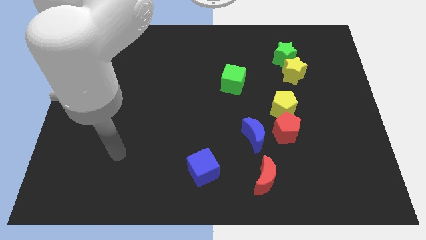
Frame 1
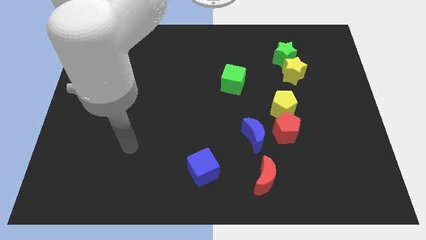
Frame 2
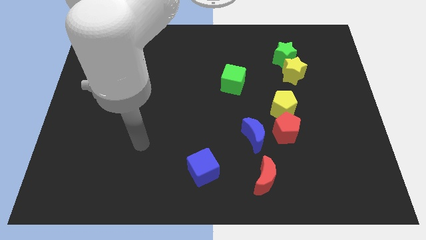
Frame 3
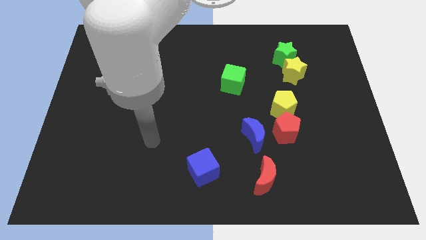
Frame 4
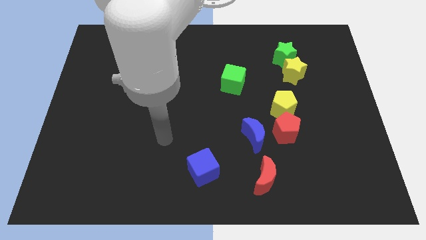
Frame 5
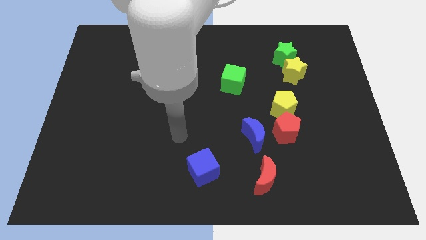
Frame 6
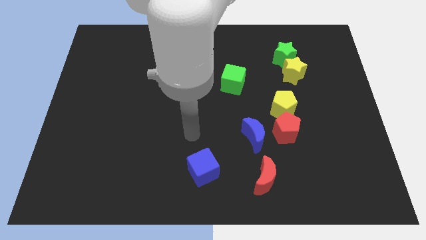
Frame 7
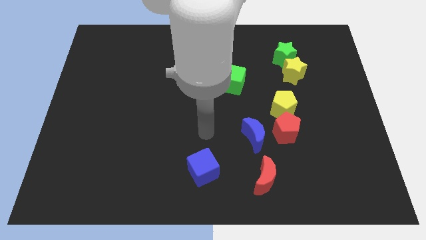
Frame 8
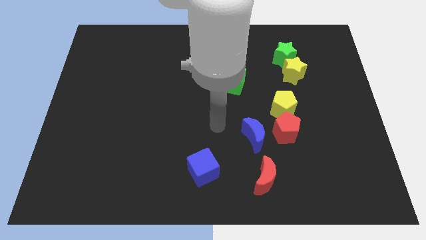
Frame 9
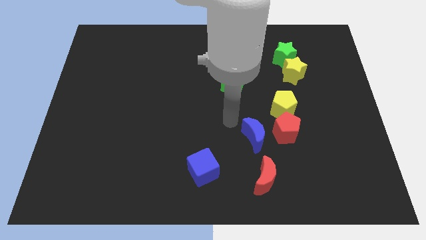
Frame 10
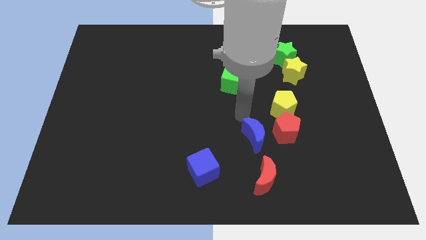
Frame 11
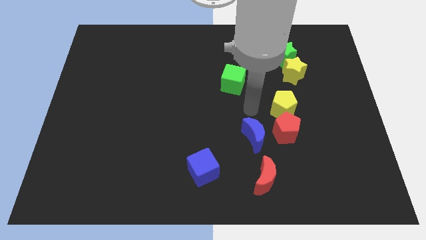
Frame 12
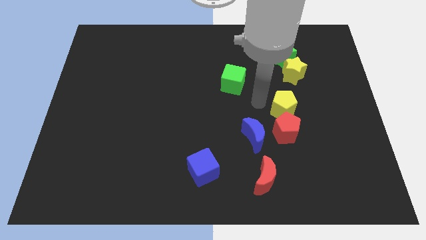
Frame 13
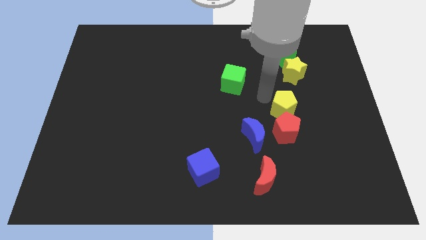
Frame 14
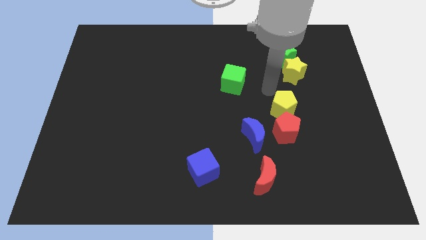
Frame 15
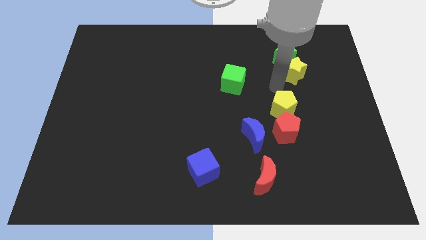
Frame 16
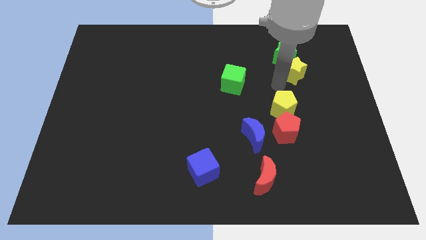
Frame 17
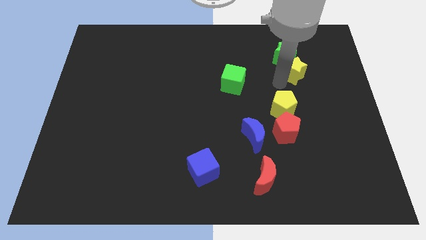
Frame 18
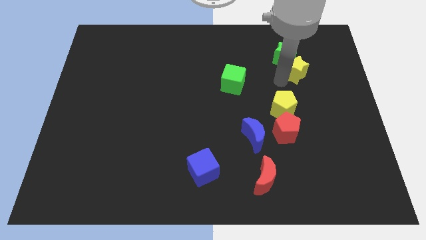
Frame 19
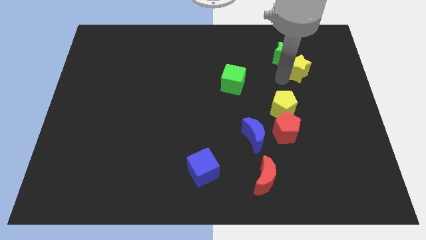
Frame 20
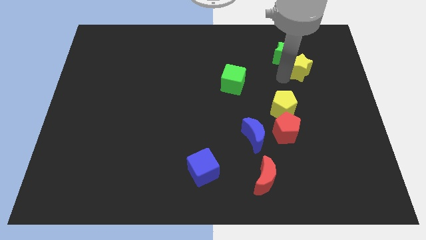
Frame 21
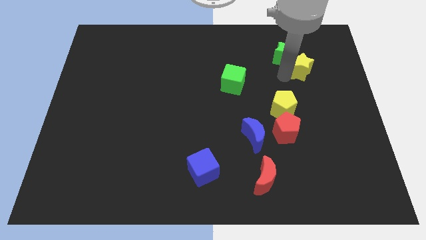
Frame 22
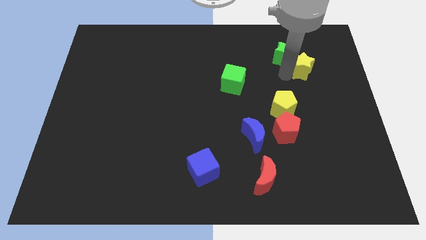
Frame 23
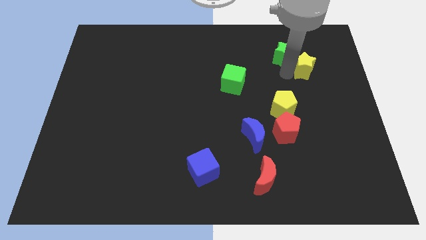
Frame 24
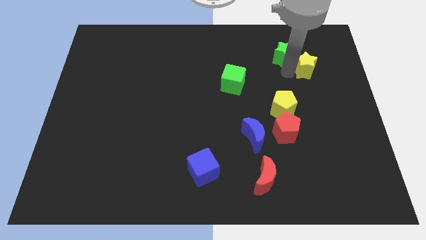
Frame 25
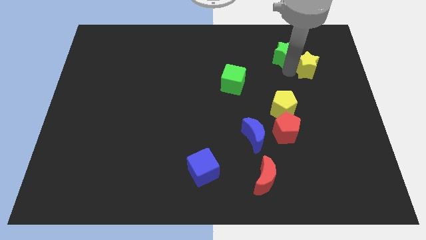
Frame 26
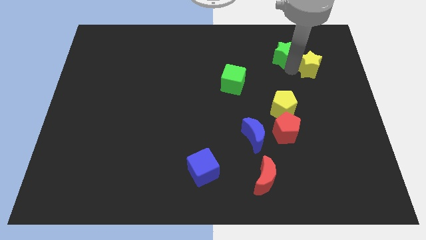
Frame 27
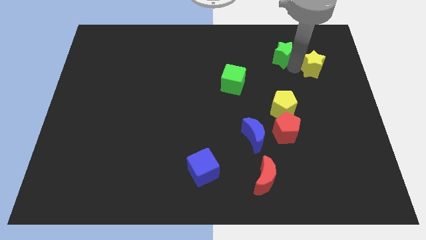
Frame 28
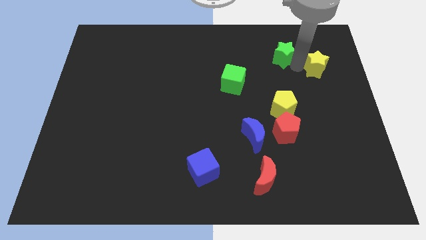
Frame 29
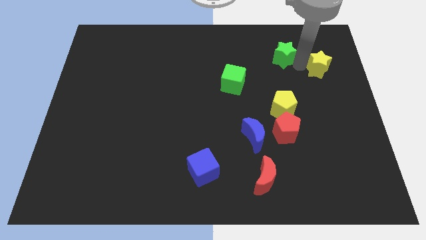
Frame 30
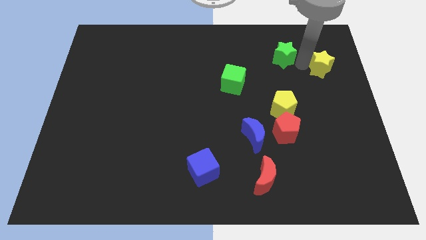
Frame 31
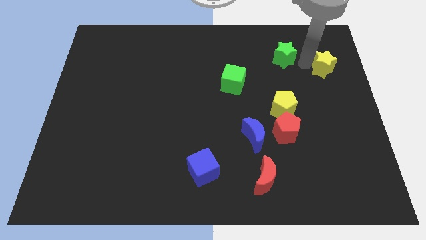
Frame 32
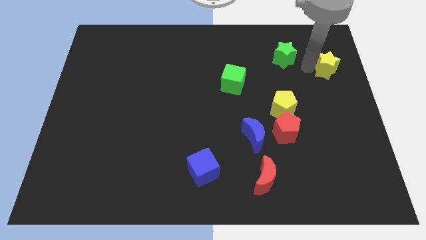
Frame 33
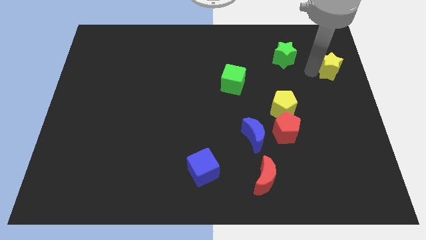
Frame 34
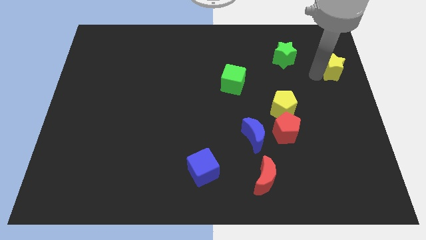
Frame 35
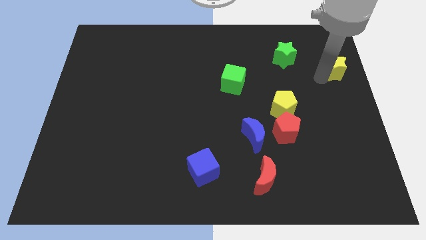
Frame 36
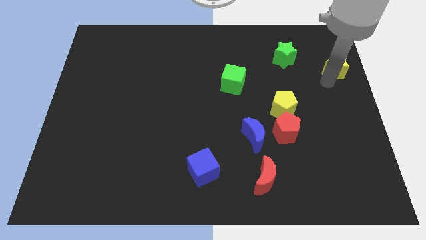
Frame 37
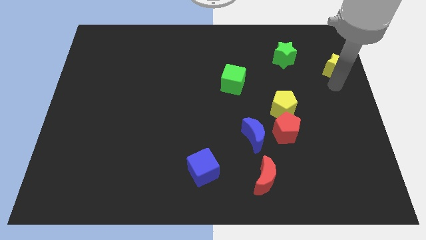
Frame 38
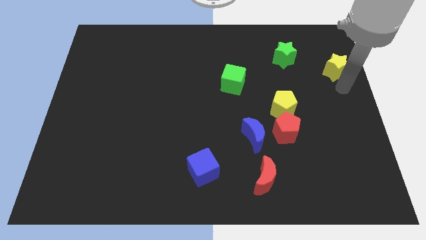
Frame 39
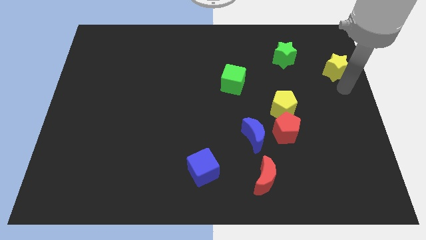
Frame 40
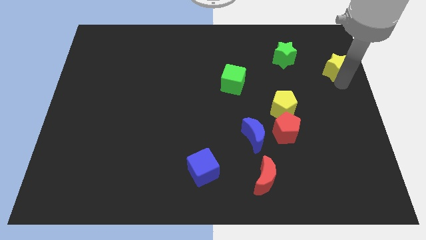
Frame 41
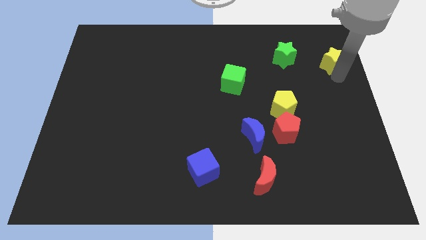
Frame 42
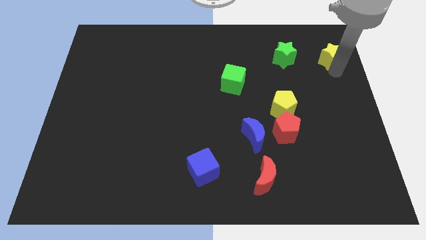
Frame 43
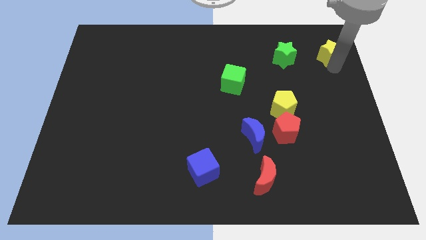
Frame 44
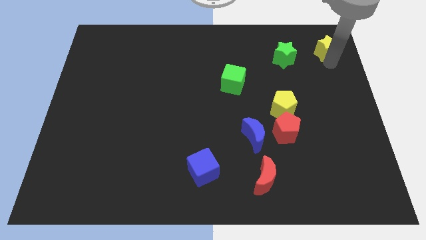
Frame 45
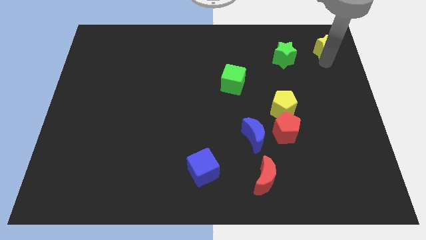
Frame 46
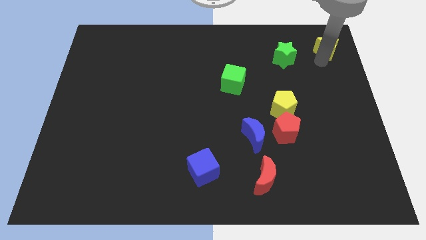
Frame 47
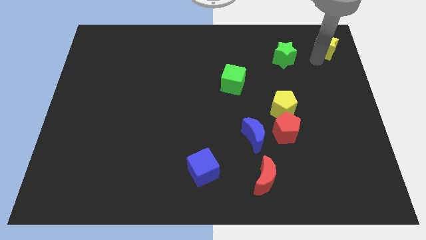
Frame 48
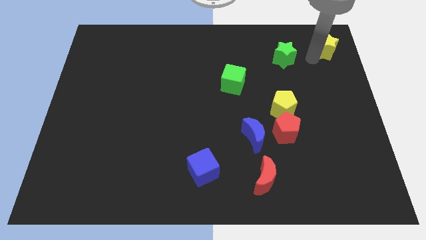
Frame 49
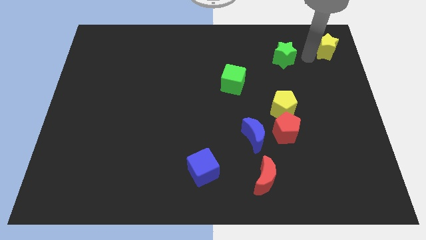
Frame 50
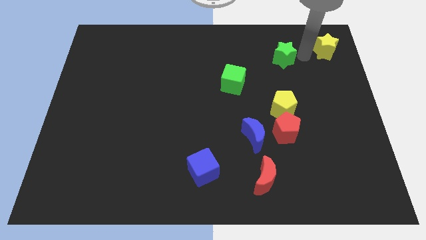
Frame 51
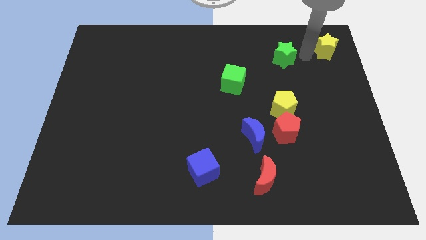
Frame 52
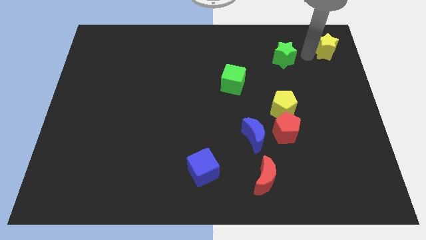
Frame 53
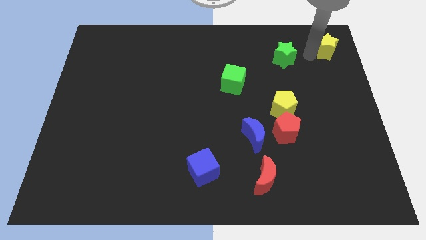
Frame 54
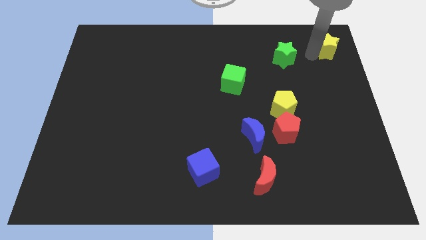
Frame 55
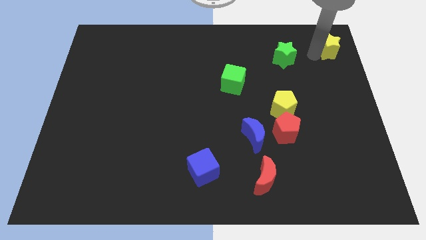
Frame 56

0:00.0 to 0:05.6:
slide the yellow star to the top right of the board

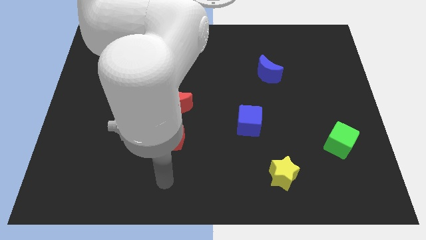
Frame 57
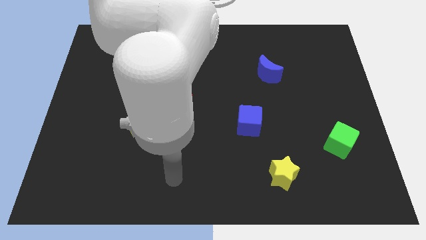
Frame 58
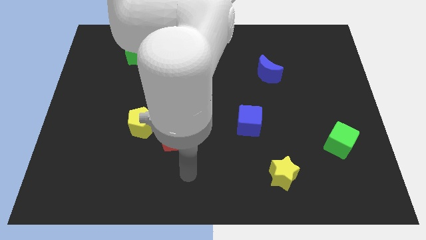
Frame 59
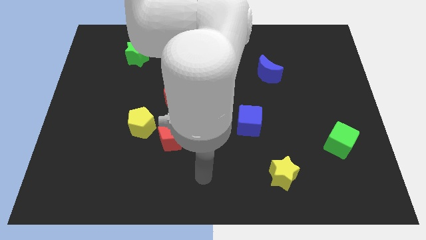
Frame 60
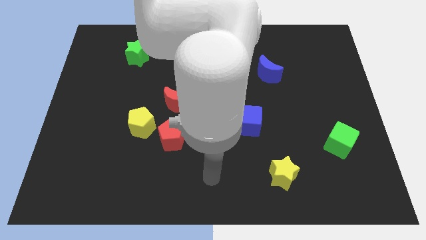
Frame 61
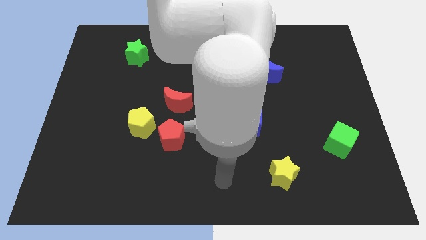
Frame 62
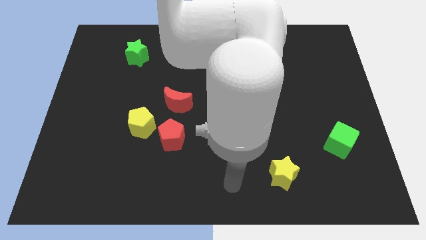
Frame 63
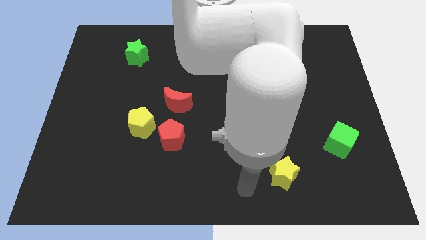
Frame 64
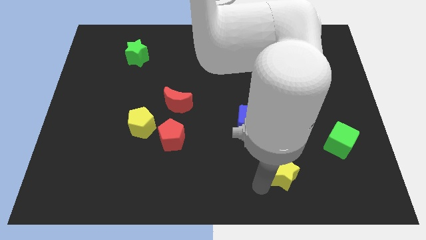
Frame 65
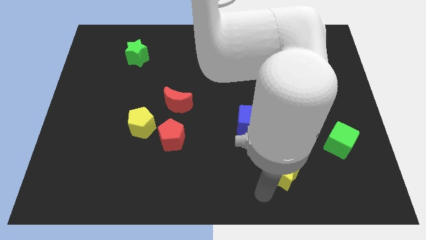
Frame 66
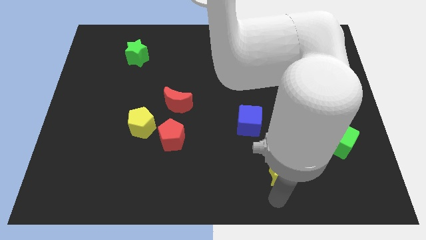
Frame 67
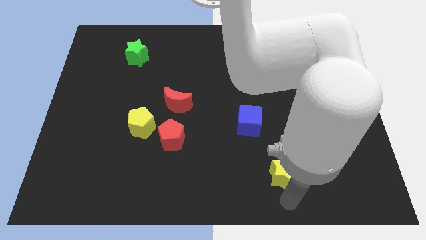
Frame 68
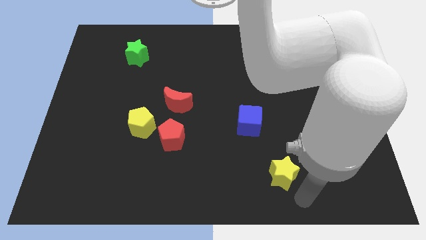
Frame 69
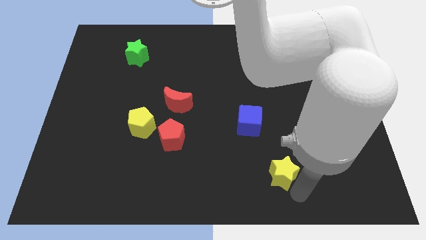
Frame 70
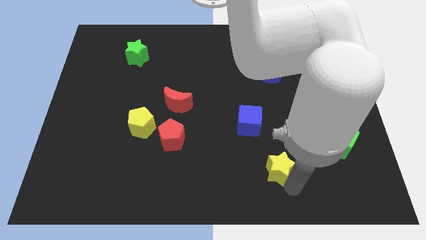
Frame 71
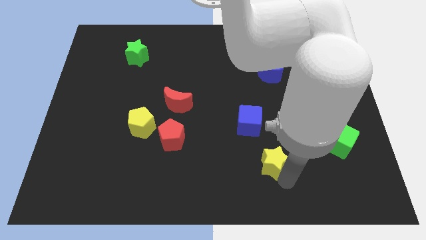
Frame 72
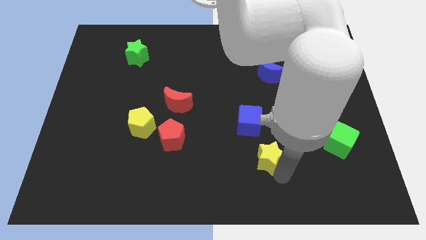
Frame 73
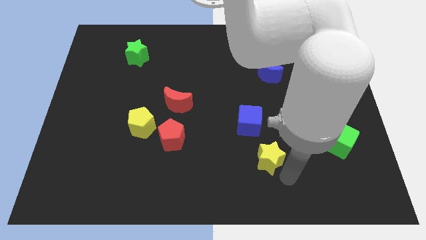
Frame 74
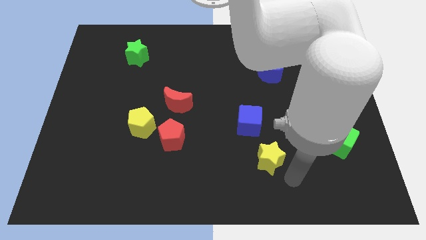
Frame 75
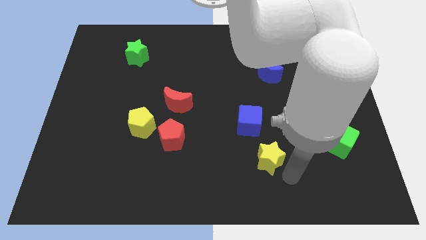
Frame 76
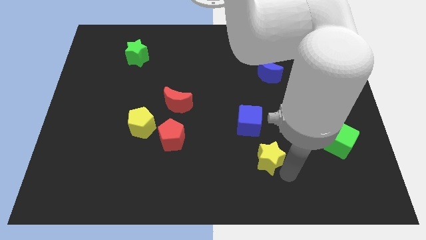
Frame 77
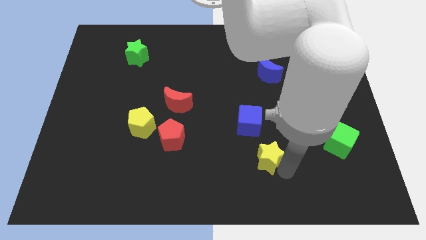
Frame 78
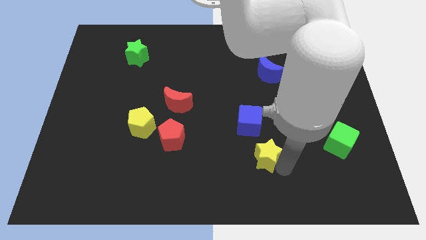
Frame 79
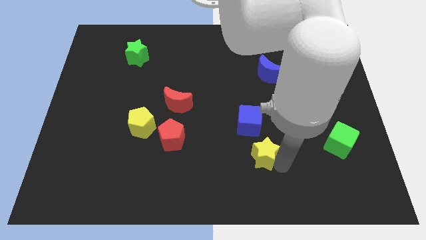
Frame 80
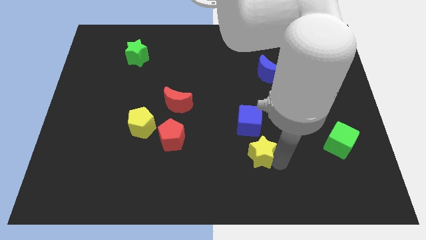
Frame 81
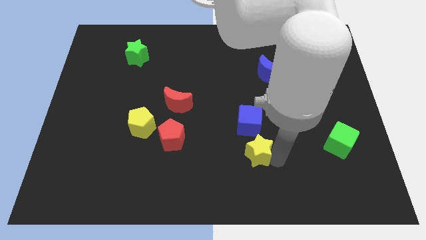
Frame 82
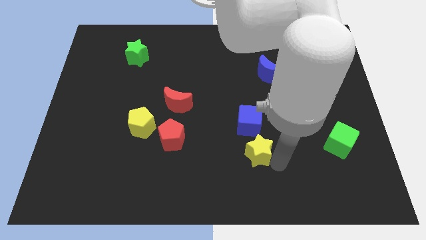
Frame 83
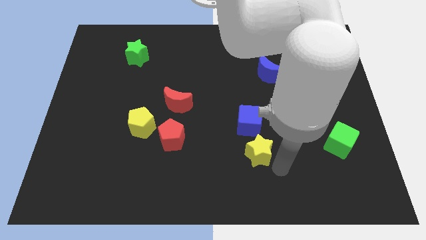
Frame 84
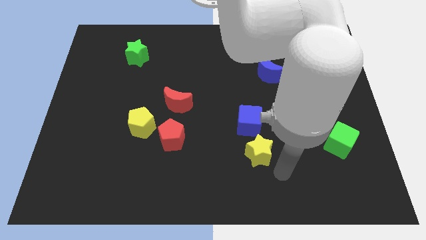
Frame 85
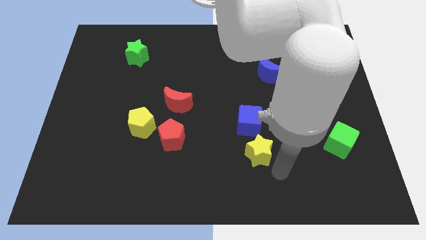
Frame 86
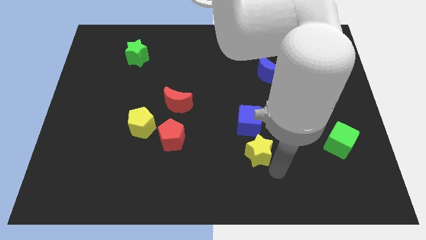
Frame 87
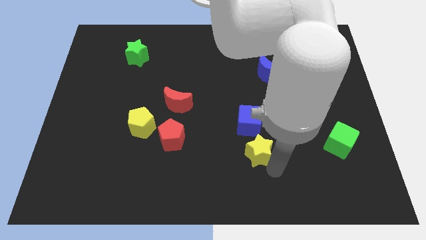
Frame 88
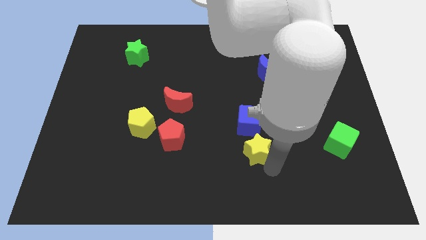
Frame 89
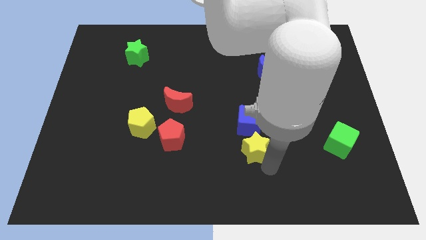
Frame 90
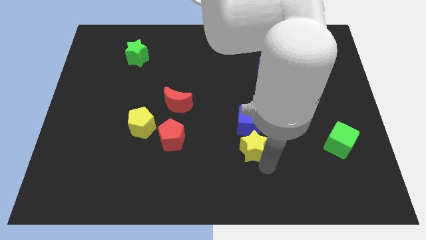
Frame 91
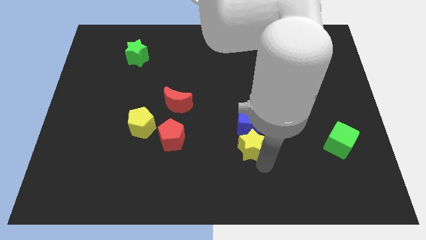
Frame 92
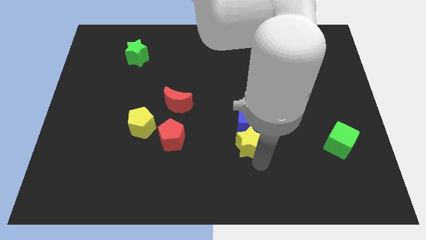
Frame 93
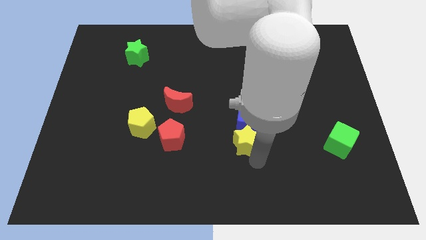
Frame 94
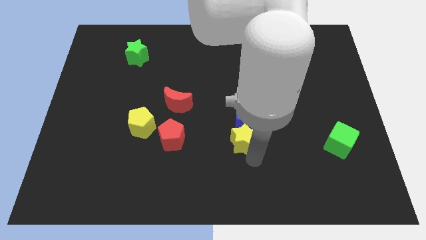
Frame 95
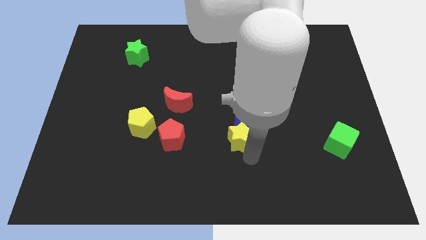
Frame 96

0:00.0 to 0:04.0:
push the yellow star to the middle
